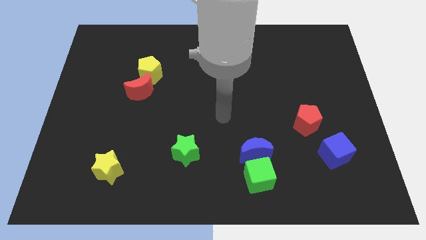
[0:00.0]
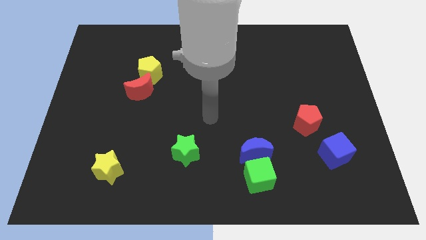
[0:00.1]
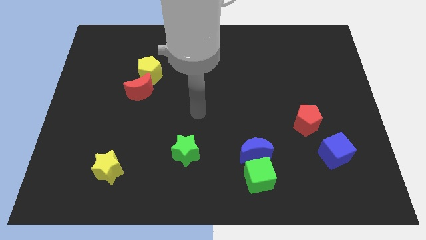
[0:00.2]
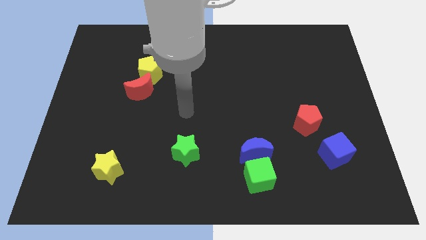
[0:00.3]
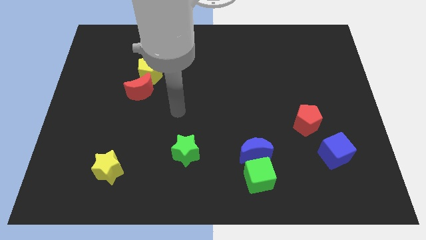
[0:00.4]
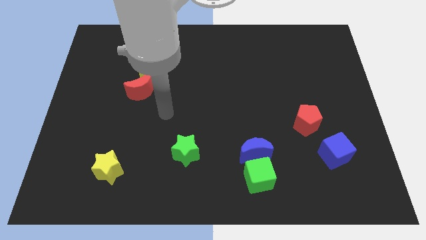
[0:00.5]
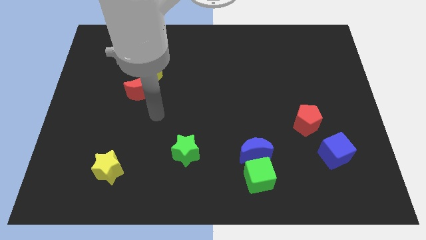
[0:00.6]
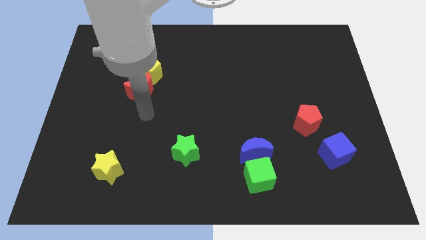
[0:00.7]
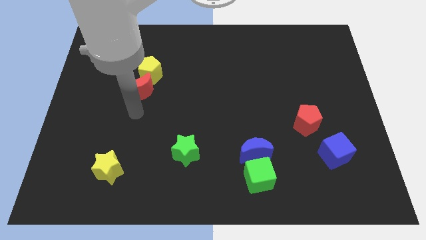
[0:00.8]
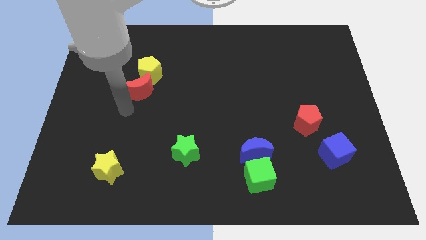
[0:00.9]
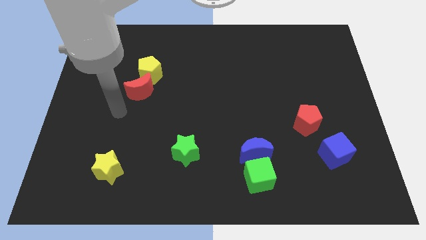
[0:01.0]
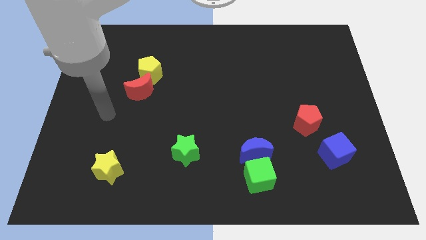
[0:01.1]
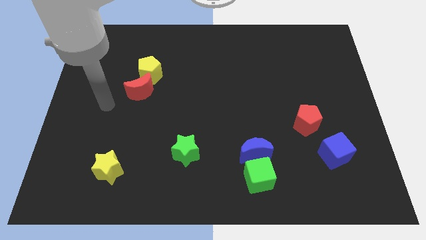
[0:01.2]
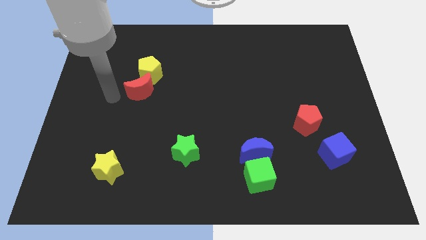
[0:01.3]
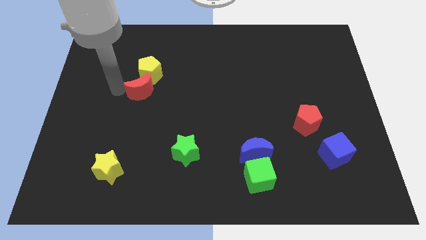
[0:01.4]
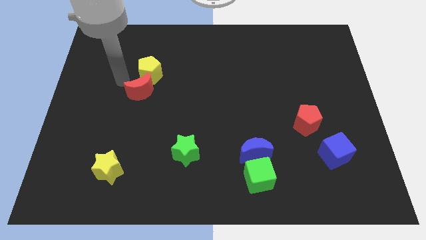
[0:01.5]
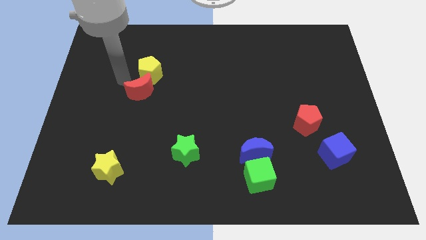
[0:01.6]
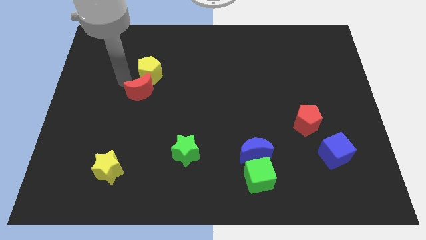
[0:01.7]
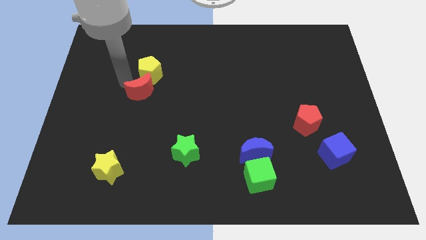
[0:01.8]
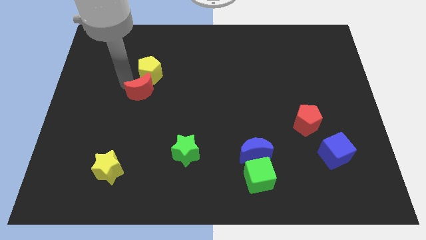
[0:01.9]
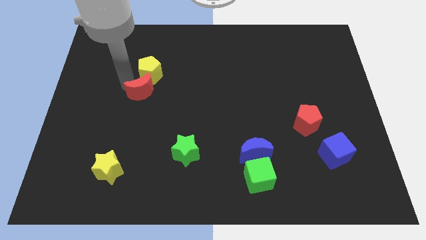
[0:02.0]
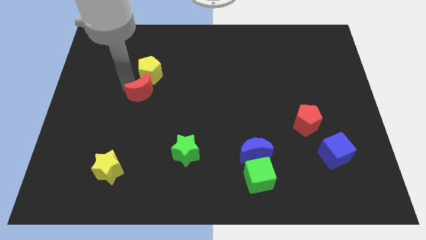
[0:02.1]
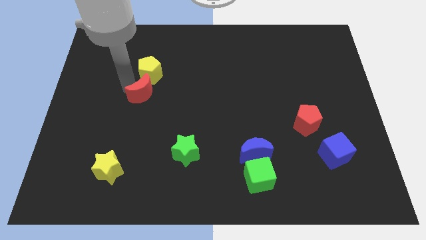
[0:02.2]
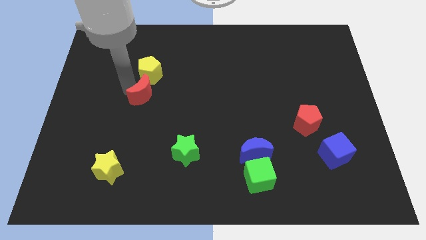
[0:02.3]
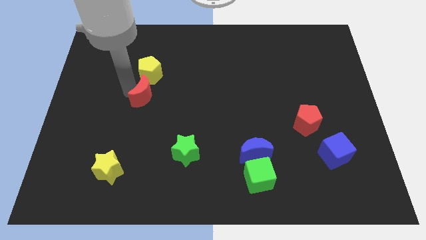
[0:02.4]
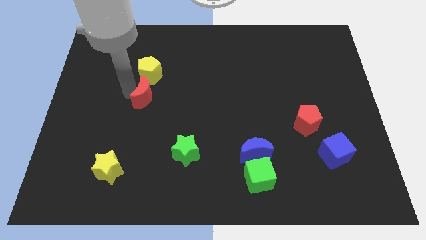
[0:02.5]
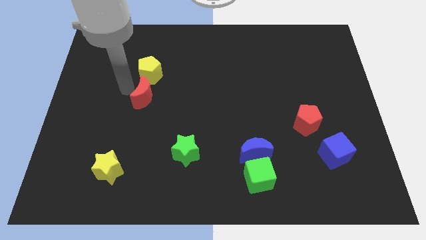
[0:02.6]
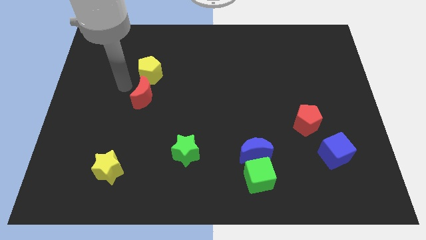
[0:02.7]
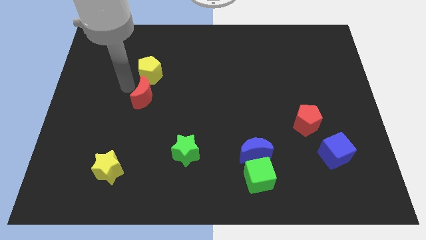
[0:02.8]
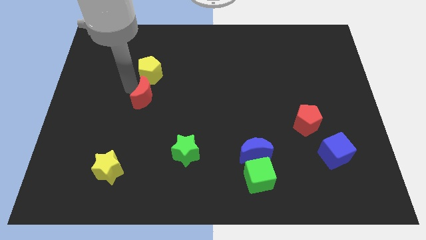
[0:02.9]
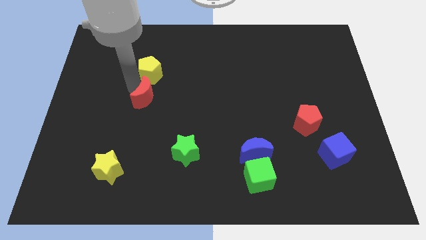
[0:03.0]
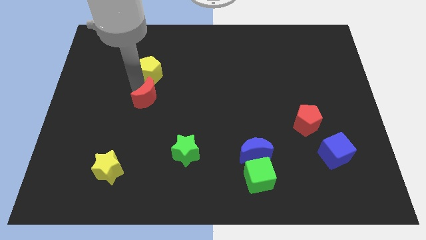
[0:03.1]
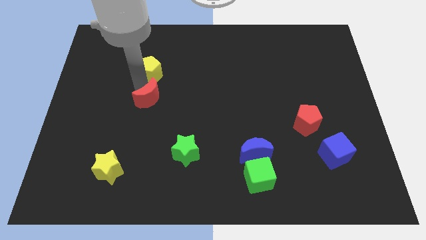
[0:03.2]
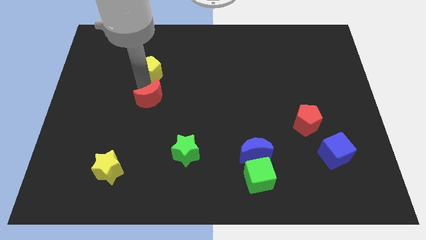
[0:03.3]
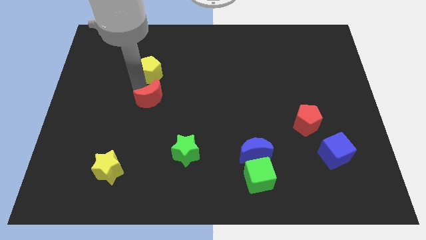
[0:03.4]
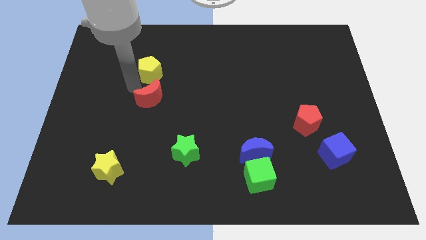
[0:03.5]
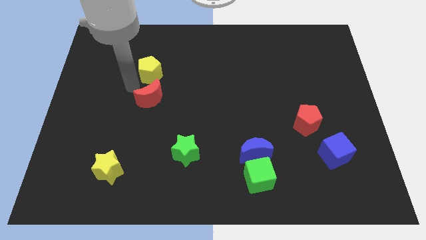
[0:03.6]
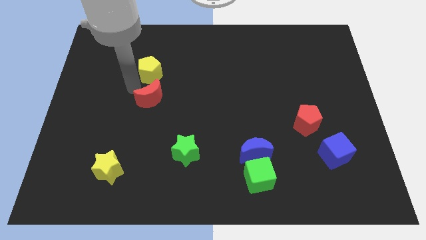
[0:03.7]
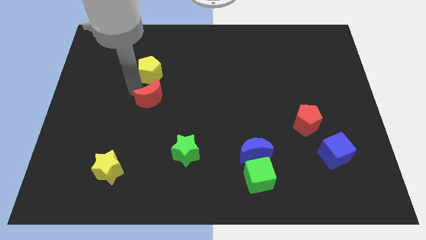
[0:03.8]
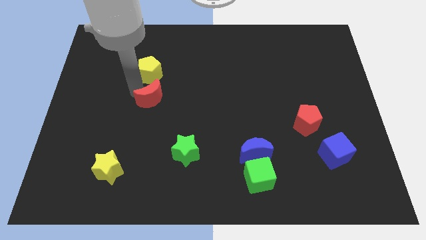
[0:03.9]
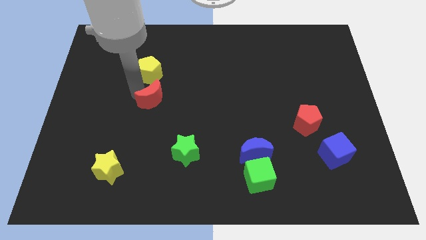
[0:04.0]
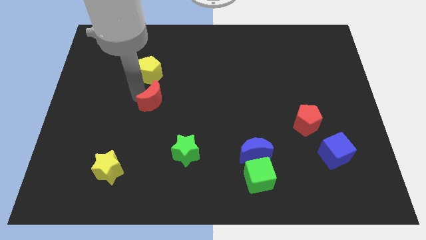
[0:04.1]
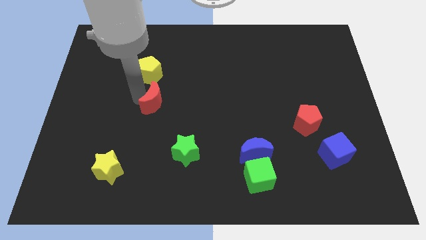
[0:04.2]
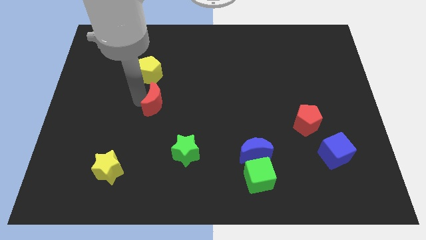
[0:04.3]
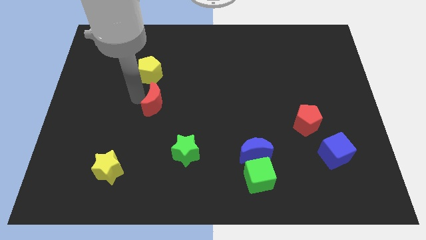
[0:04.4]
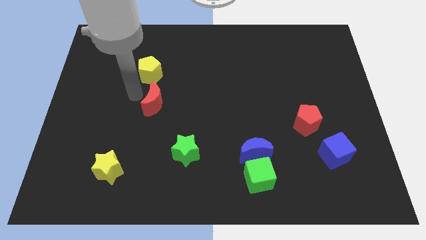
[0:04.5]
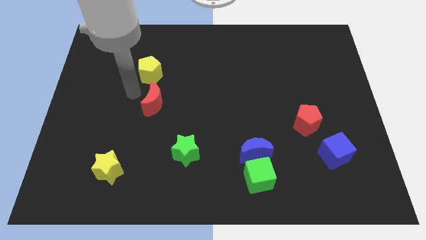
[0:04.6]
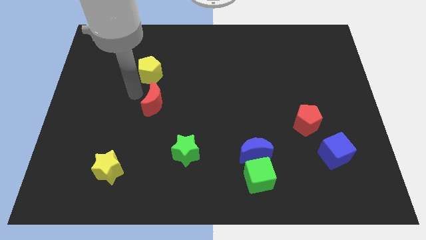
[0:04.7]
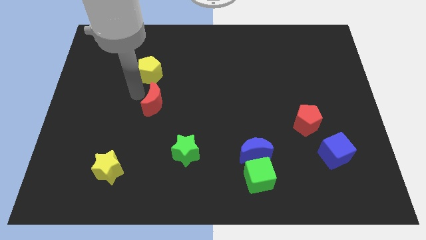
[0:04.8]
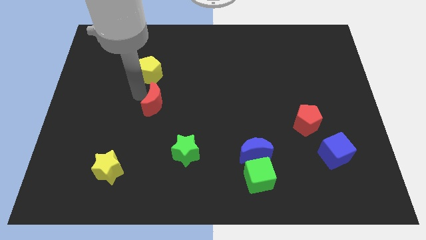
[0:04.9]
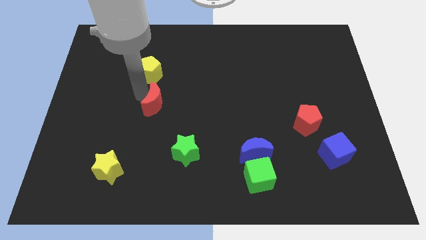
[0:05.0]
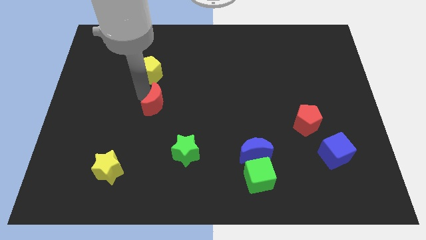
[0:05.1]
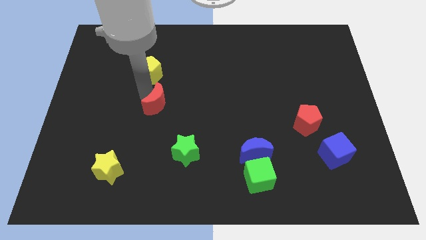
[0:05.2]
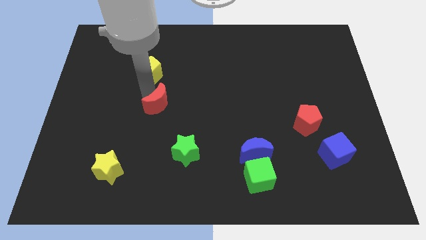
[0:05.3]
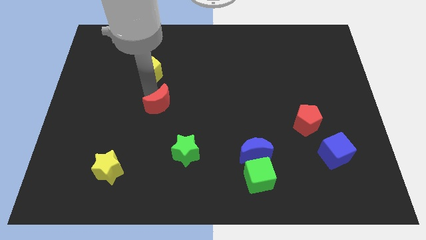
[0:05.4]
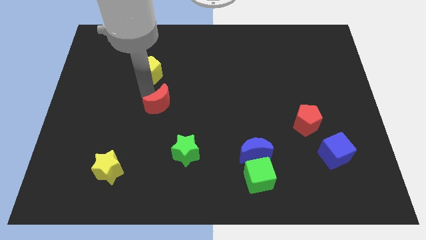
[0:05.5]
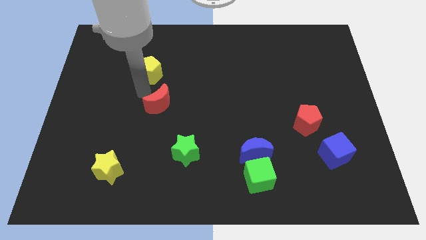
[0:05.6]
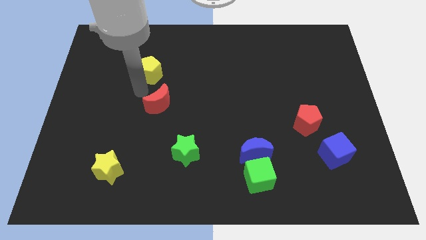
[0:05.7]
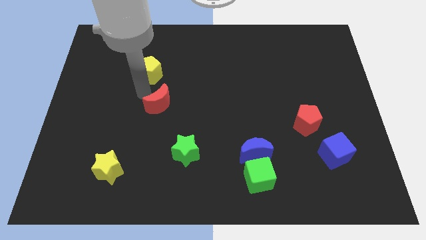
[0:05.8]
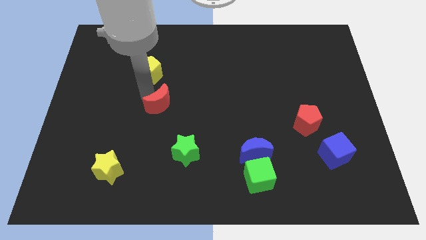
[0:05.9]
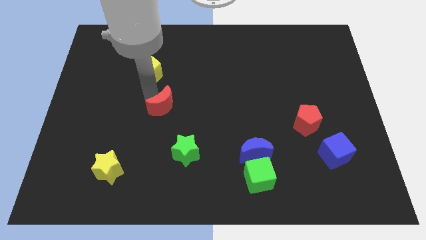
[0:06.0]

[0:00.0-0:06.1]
slightly push the red moon down and to the right diagonally

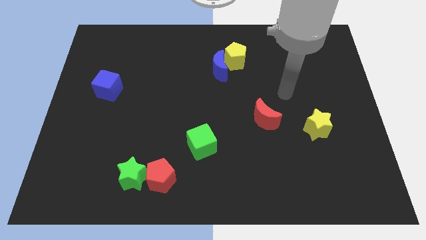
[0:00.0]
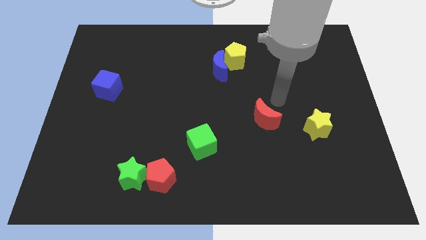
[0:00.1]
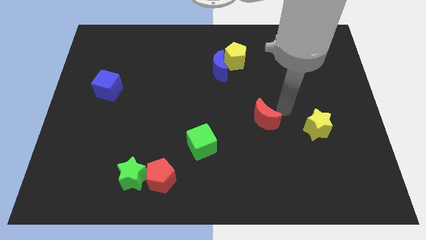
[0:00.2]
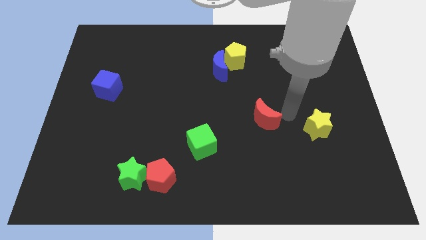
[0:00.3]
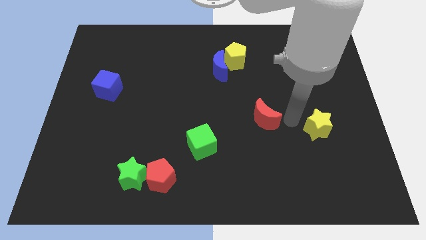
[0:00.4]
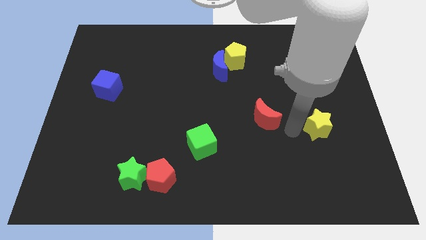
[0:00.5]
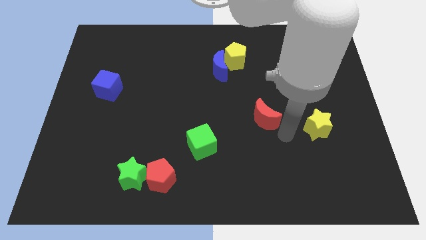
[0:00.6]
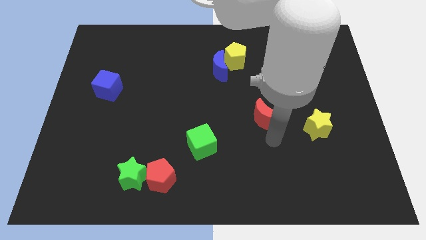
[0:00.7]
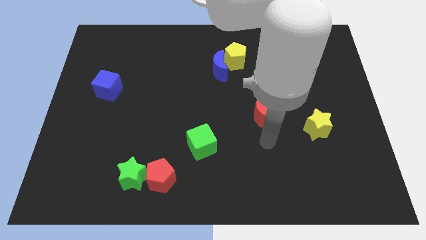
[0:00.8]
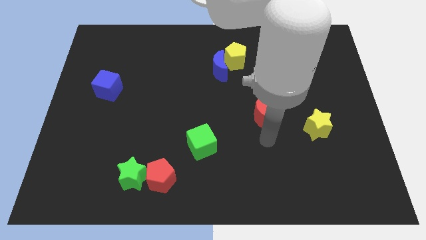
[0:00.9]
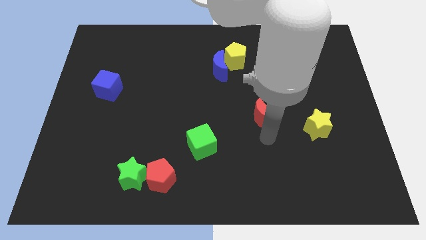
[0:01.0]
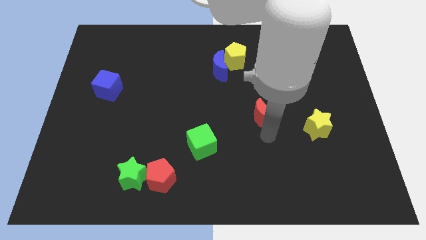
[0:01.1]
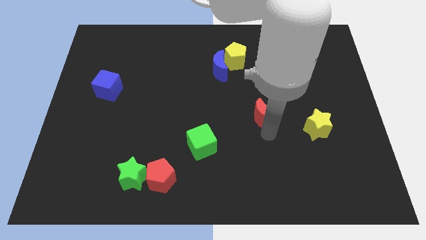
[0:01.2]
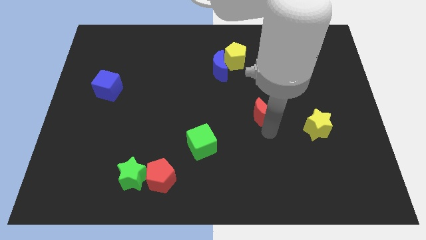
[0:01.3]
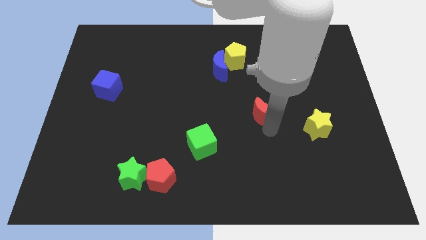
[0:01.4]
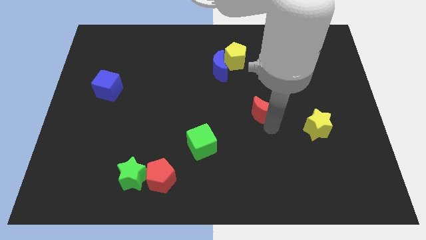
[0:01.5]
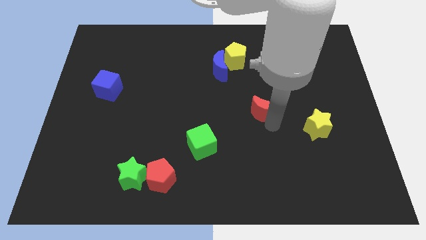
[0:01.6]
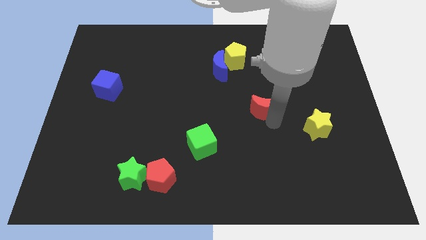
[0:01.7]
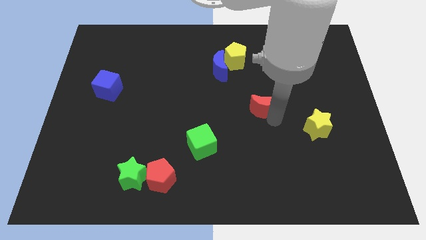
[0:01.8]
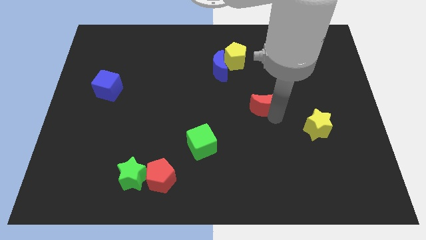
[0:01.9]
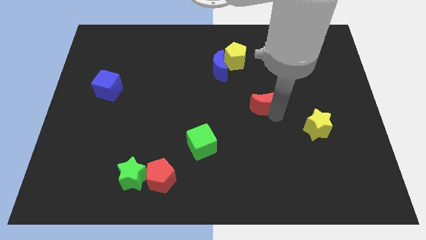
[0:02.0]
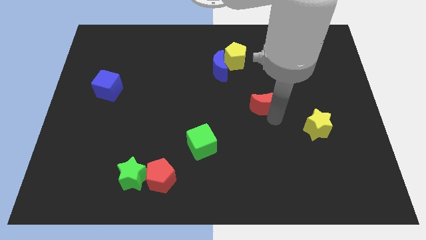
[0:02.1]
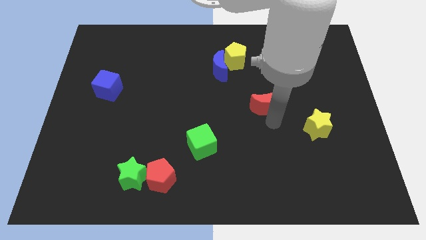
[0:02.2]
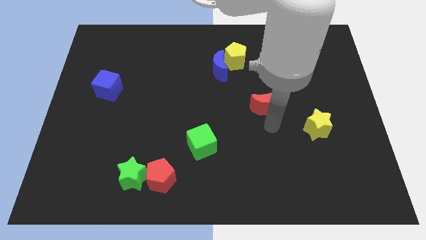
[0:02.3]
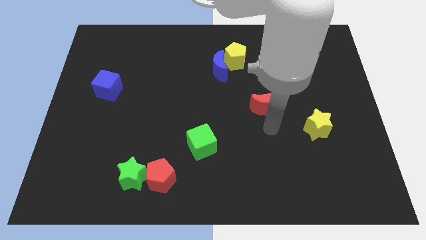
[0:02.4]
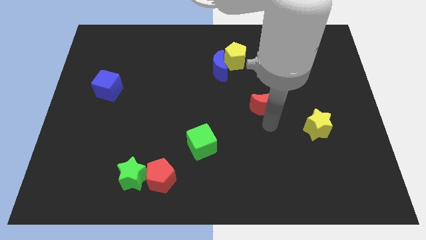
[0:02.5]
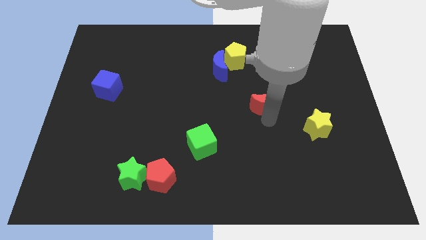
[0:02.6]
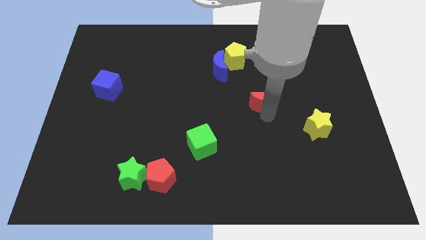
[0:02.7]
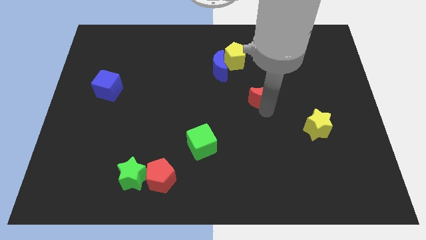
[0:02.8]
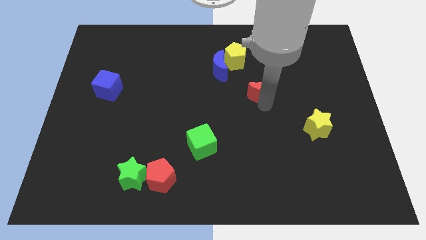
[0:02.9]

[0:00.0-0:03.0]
slightly slide the red moon up
